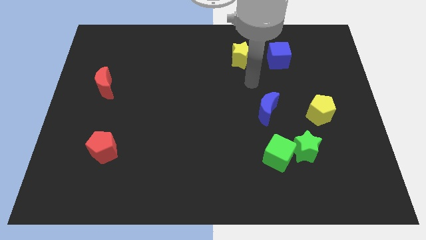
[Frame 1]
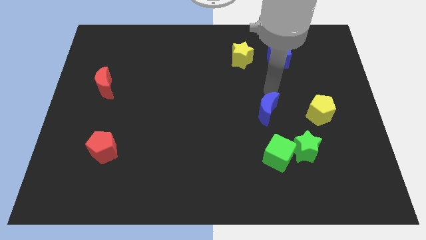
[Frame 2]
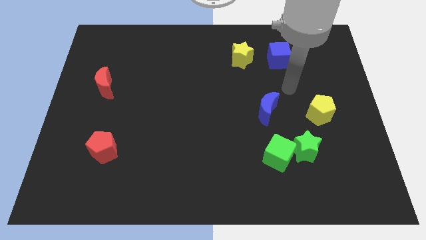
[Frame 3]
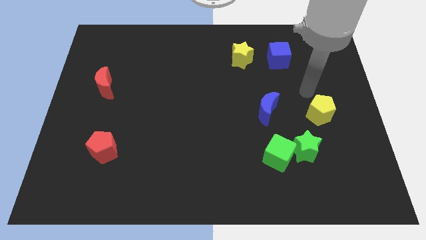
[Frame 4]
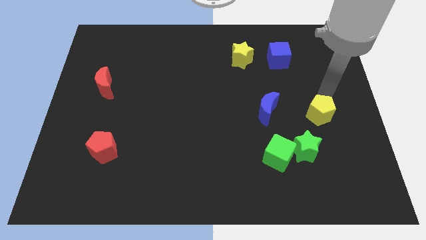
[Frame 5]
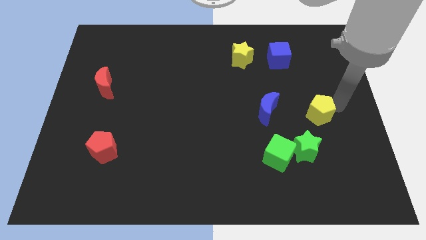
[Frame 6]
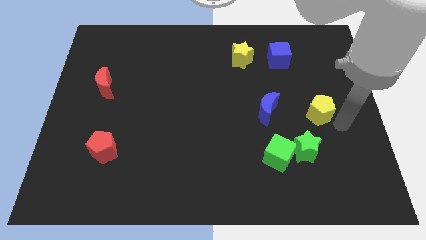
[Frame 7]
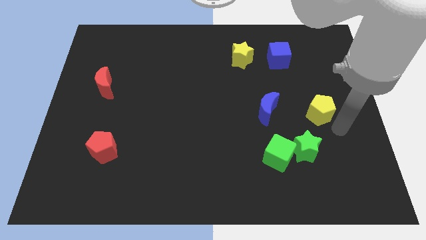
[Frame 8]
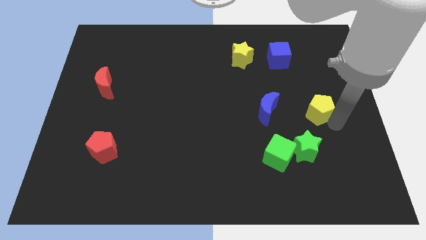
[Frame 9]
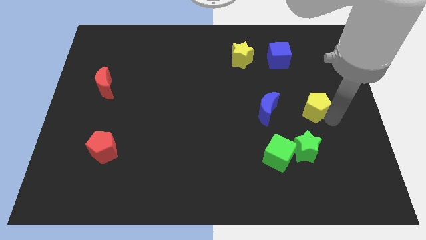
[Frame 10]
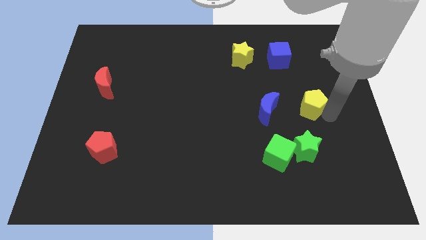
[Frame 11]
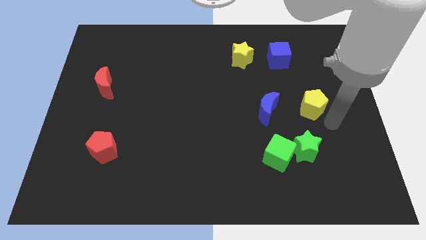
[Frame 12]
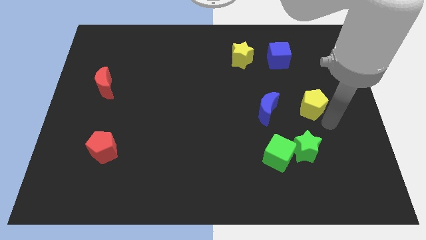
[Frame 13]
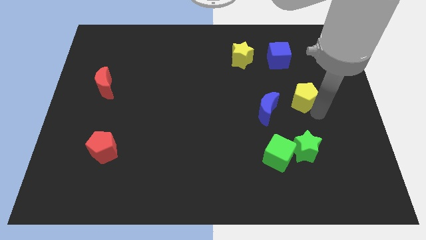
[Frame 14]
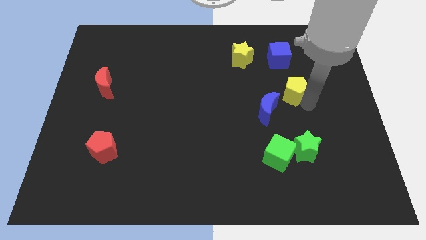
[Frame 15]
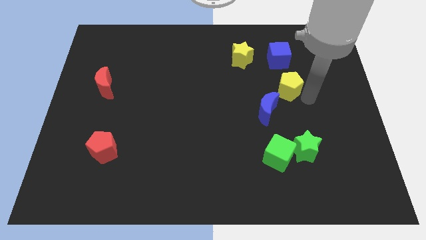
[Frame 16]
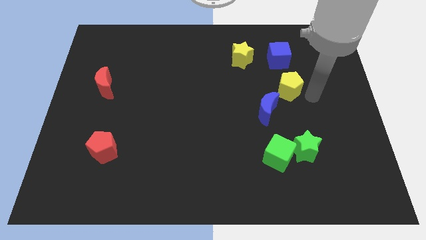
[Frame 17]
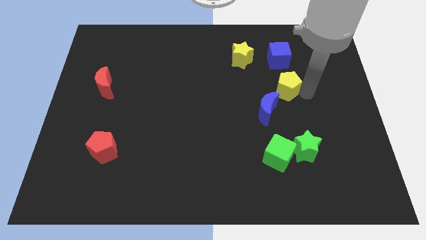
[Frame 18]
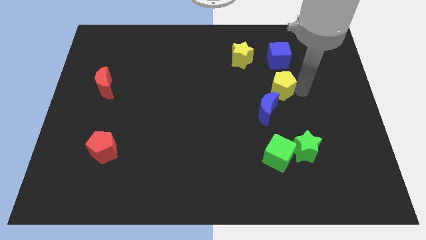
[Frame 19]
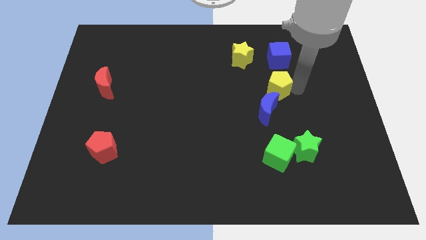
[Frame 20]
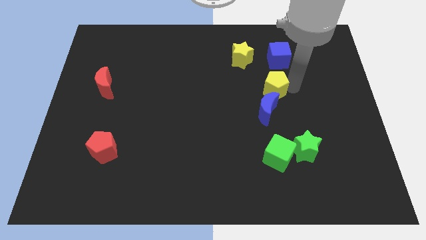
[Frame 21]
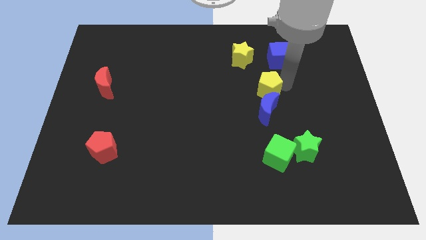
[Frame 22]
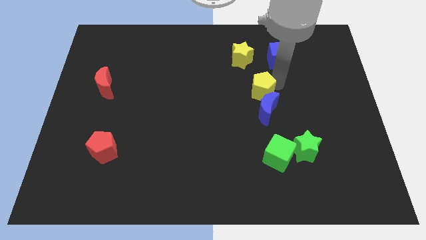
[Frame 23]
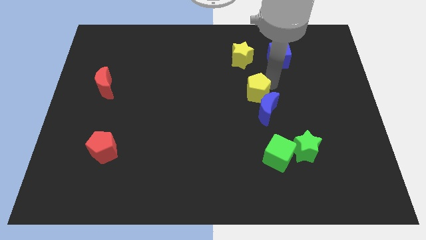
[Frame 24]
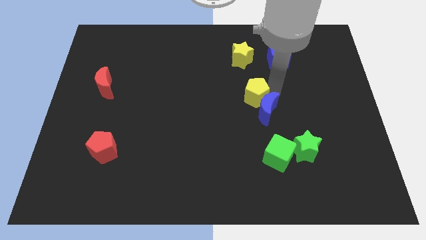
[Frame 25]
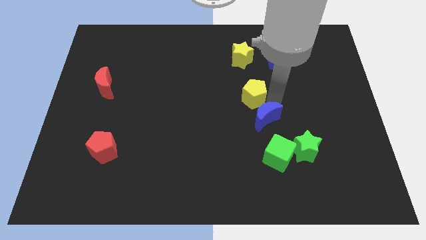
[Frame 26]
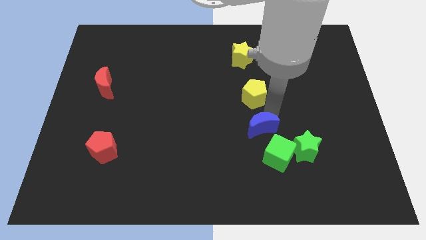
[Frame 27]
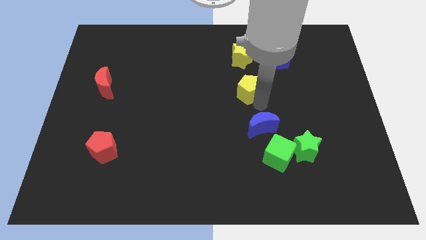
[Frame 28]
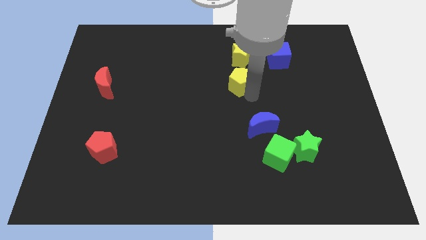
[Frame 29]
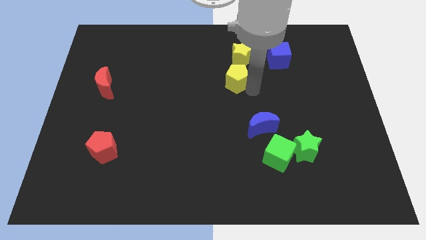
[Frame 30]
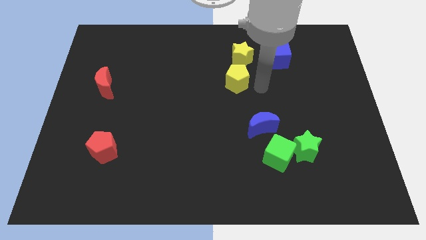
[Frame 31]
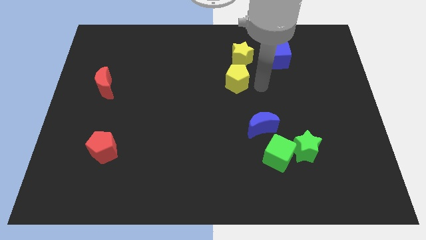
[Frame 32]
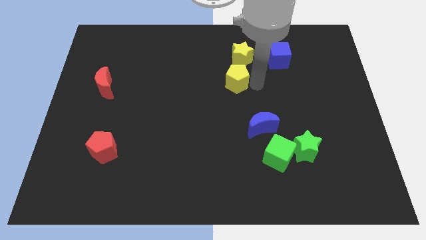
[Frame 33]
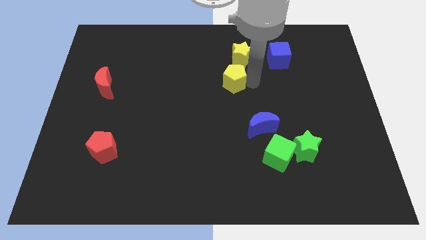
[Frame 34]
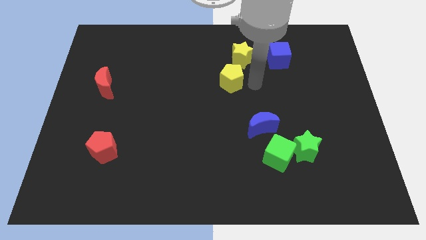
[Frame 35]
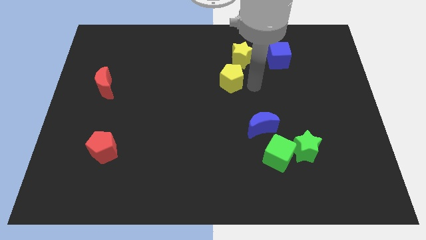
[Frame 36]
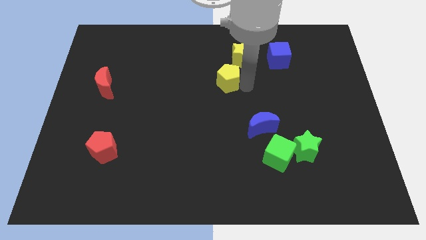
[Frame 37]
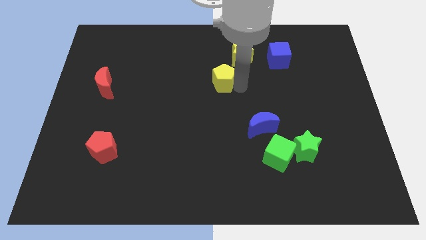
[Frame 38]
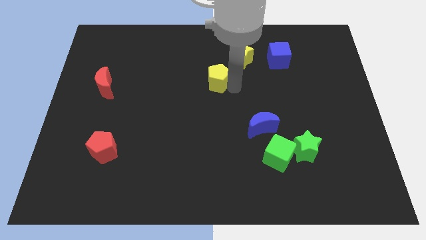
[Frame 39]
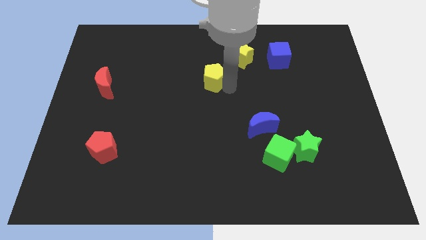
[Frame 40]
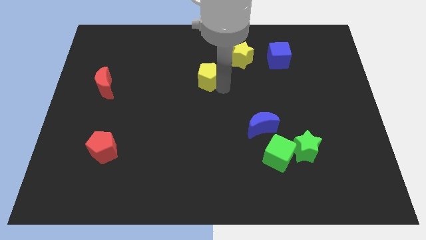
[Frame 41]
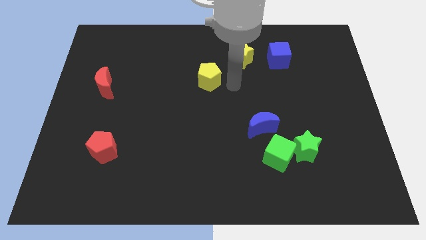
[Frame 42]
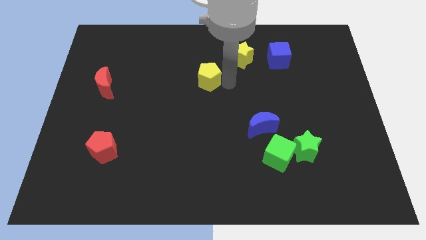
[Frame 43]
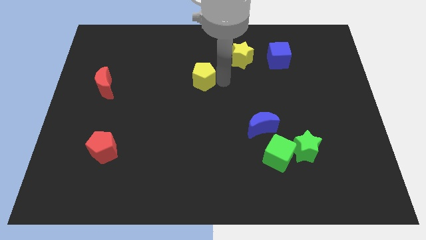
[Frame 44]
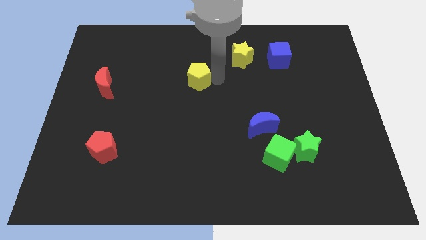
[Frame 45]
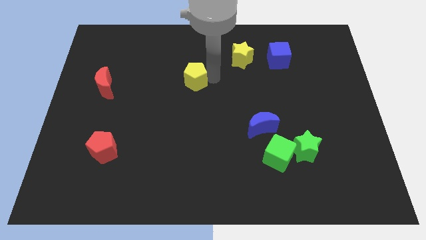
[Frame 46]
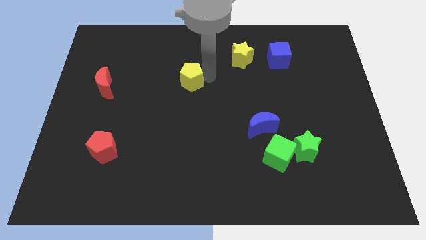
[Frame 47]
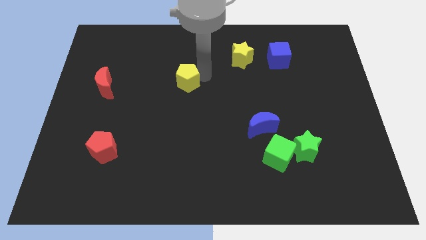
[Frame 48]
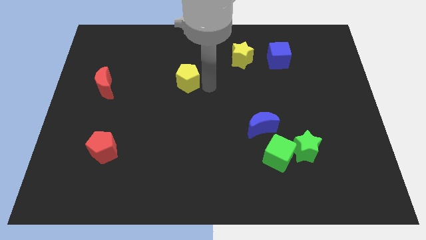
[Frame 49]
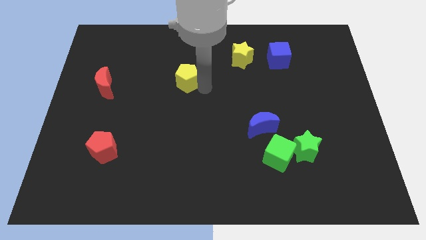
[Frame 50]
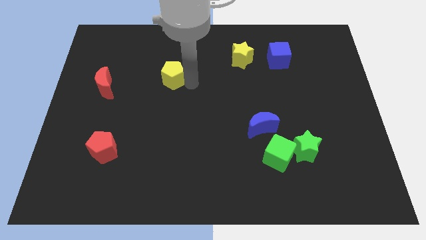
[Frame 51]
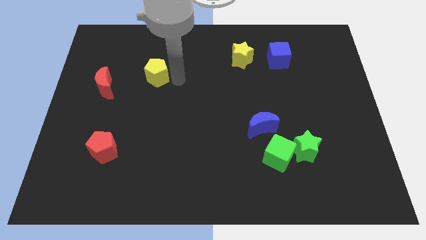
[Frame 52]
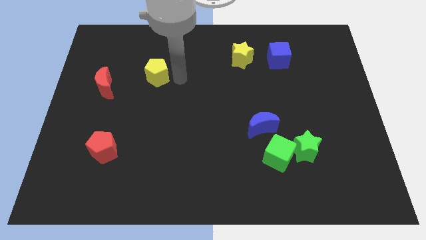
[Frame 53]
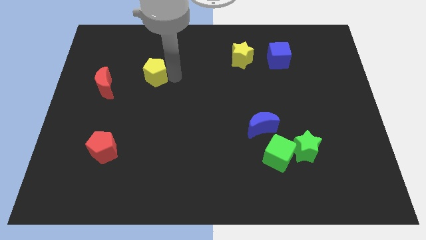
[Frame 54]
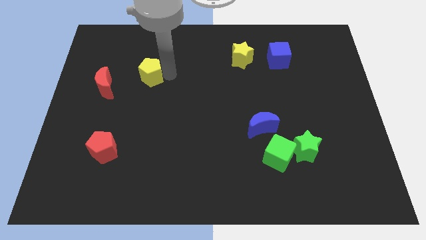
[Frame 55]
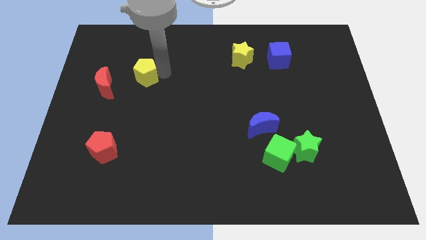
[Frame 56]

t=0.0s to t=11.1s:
put the yellow pentagon diagonally up and to the right of the red moon

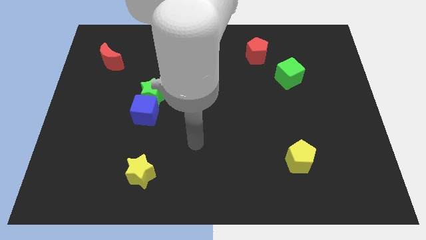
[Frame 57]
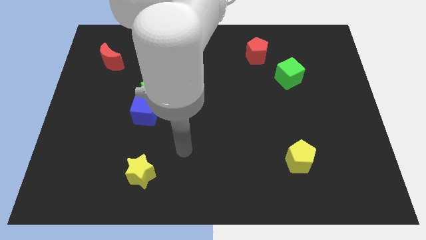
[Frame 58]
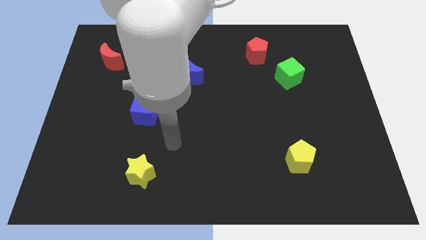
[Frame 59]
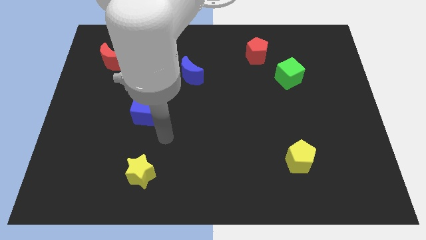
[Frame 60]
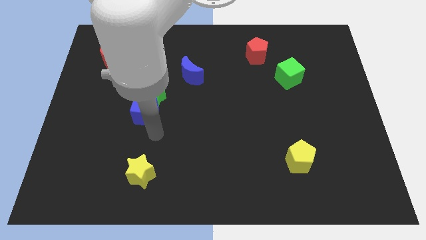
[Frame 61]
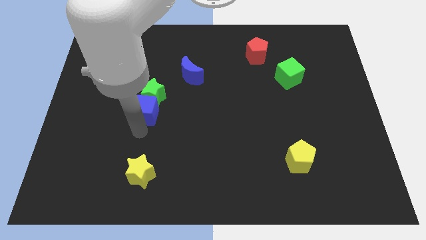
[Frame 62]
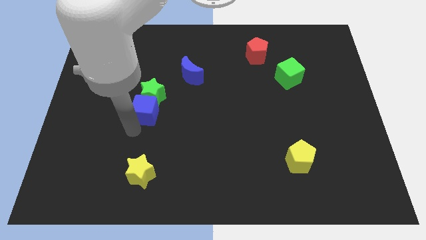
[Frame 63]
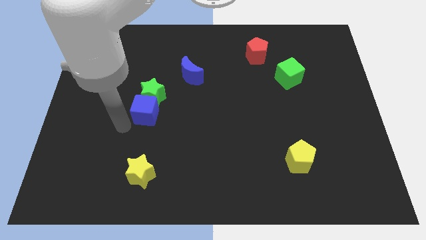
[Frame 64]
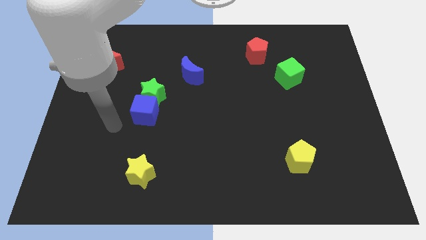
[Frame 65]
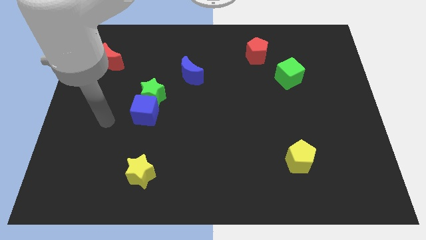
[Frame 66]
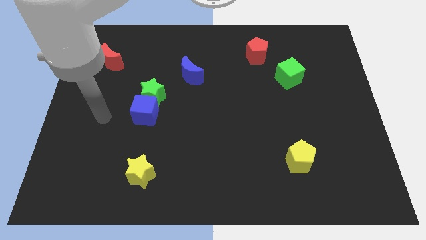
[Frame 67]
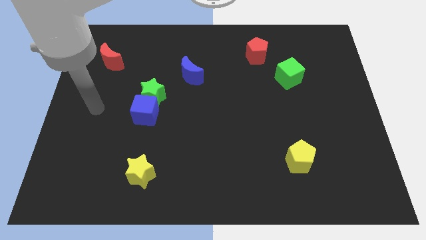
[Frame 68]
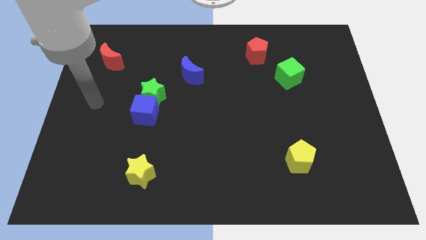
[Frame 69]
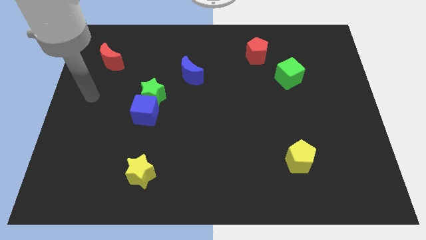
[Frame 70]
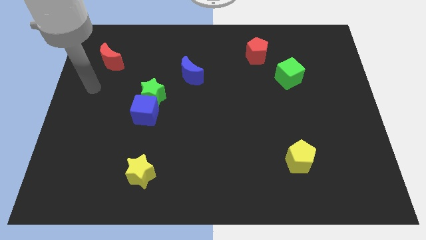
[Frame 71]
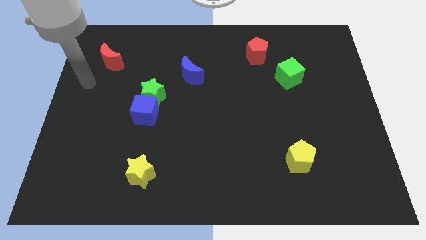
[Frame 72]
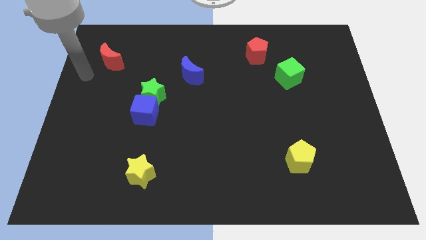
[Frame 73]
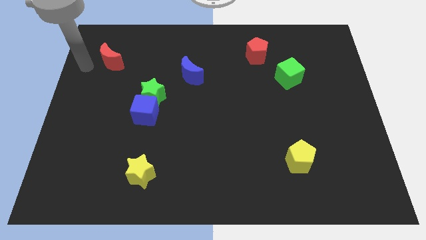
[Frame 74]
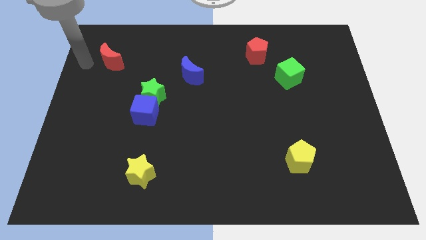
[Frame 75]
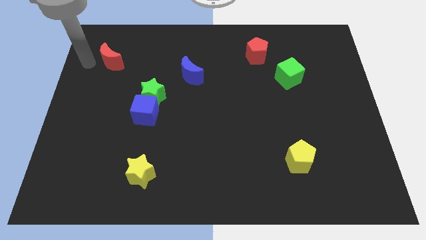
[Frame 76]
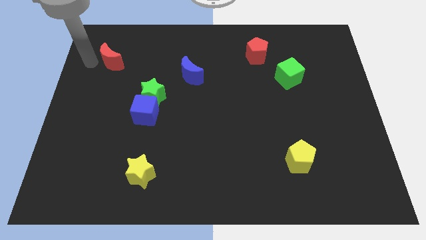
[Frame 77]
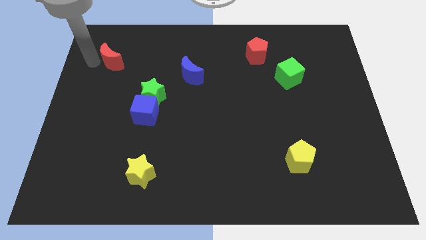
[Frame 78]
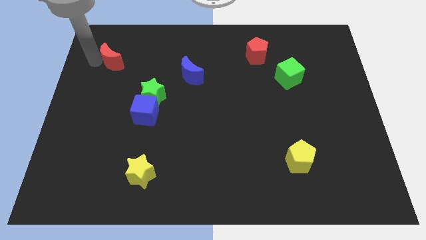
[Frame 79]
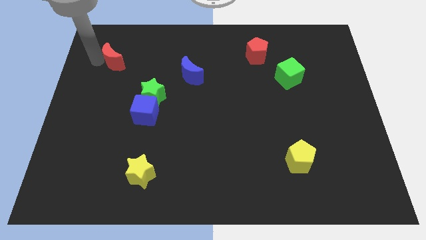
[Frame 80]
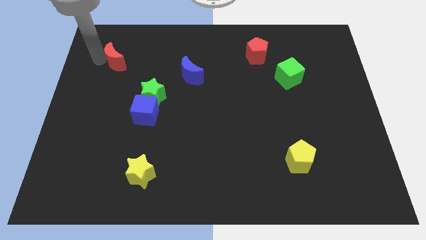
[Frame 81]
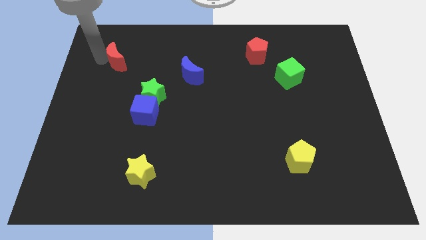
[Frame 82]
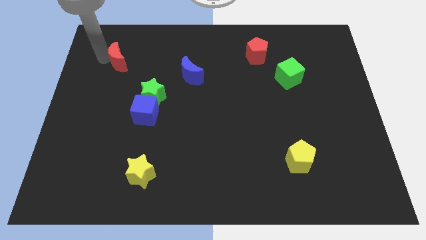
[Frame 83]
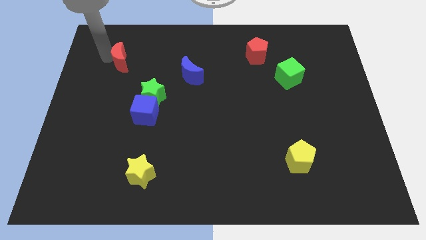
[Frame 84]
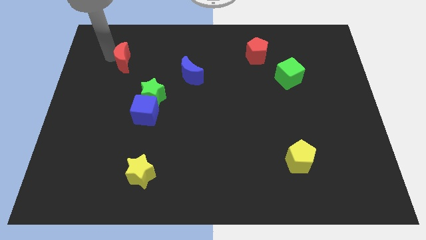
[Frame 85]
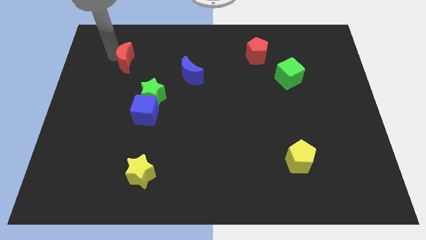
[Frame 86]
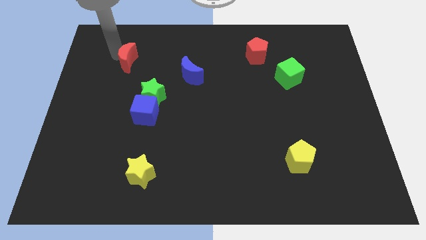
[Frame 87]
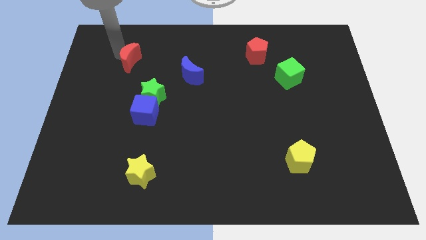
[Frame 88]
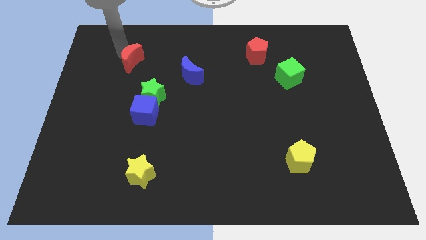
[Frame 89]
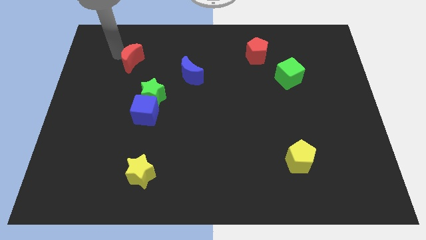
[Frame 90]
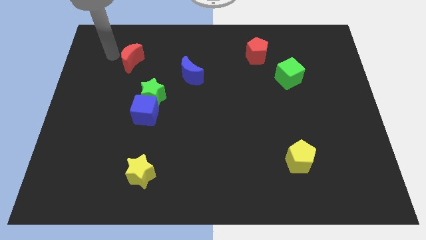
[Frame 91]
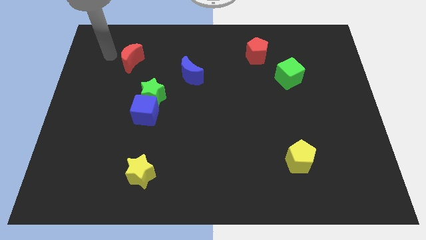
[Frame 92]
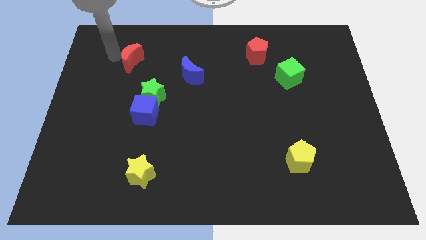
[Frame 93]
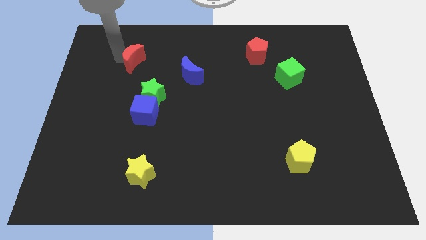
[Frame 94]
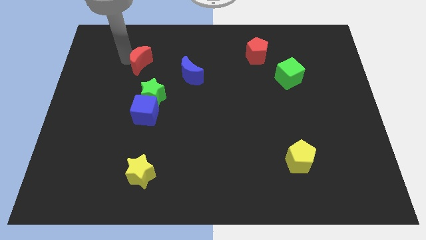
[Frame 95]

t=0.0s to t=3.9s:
push the red moon to the top side of the green star
